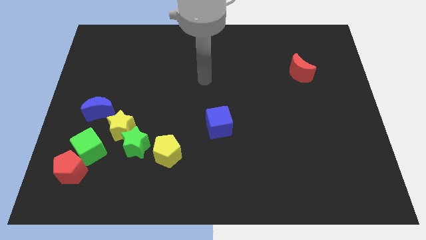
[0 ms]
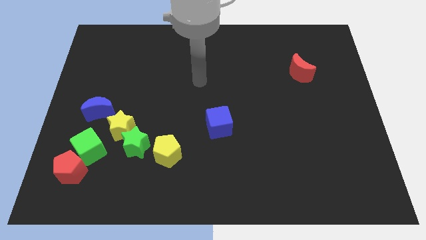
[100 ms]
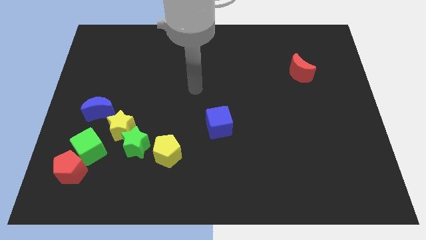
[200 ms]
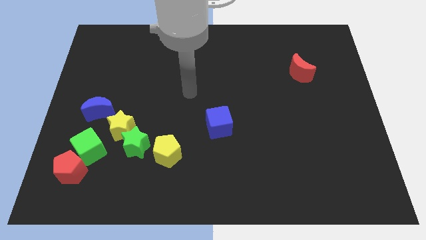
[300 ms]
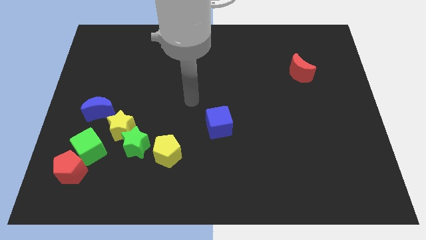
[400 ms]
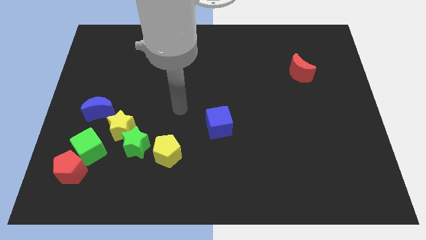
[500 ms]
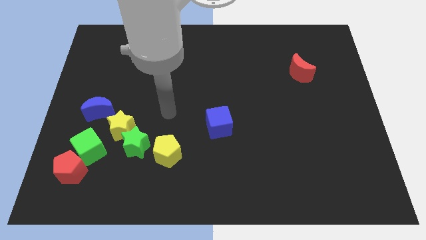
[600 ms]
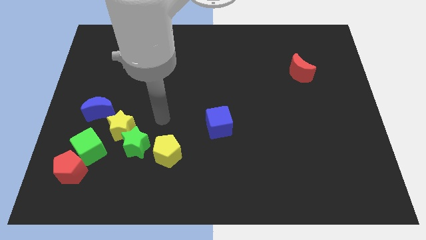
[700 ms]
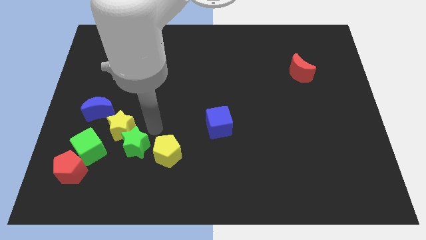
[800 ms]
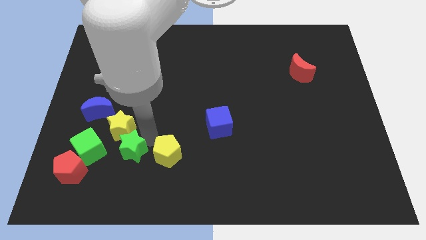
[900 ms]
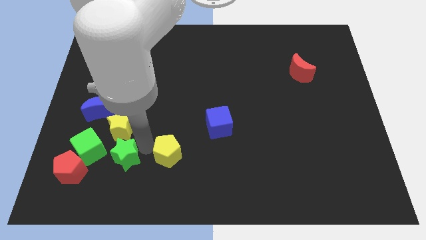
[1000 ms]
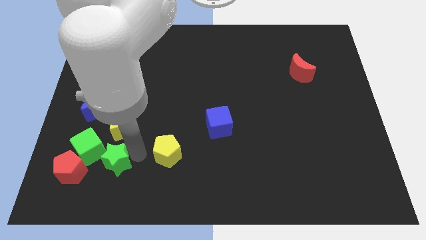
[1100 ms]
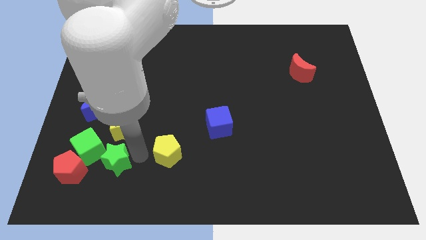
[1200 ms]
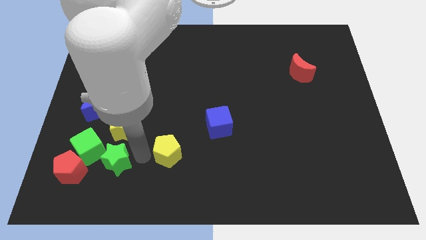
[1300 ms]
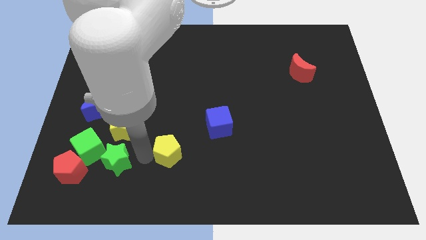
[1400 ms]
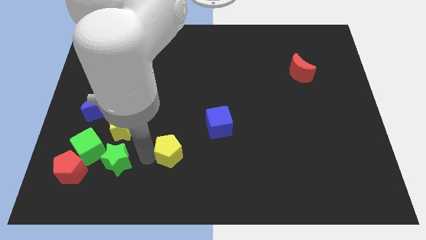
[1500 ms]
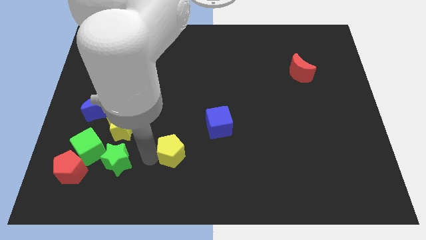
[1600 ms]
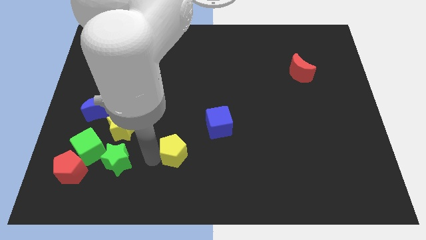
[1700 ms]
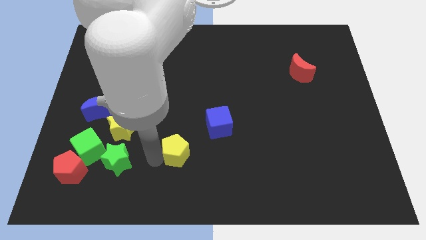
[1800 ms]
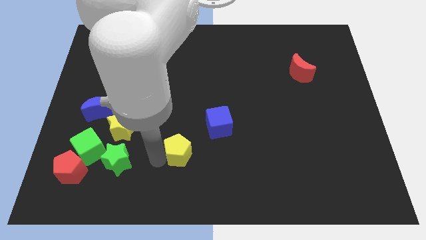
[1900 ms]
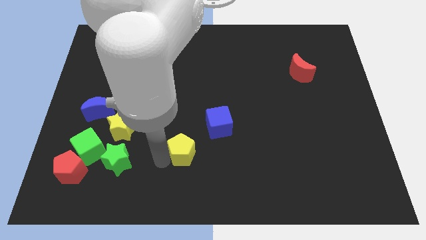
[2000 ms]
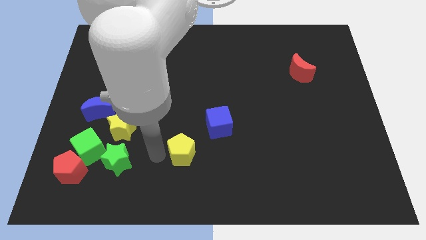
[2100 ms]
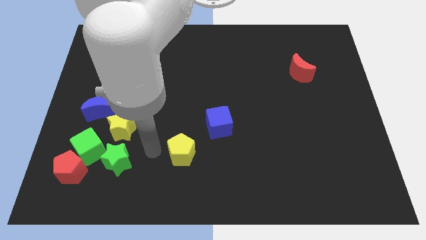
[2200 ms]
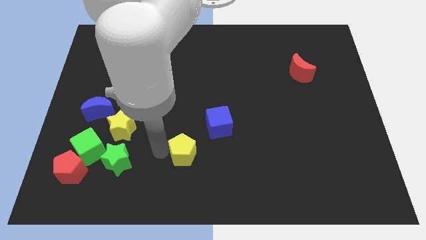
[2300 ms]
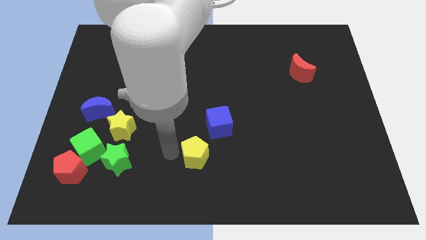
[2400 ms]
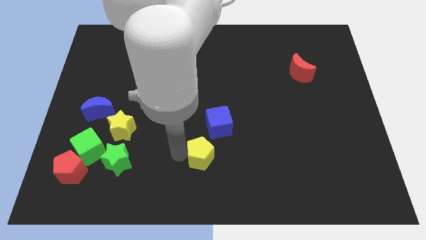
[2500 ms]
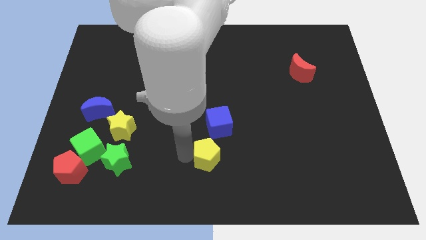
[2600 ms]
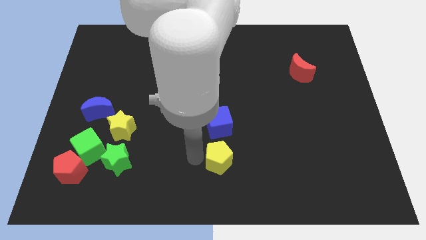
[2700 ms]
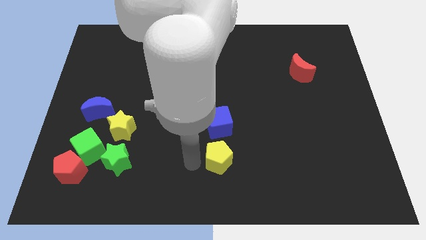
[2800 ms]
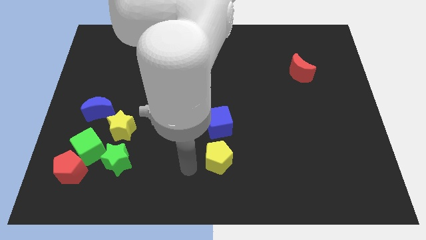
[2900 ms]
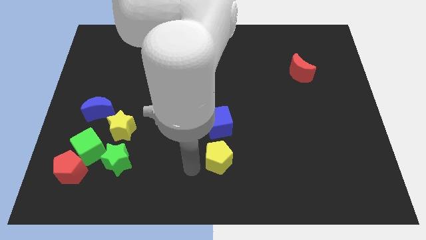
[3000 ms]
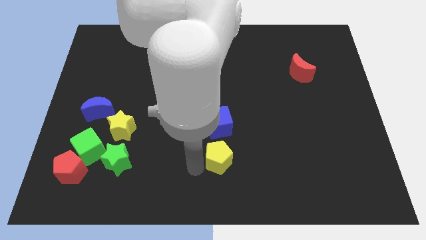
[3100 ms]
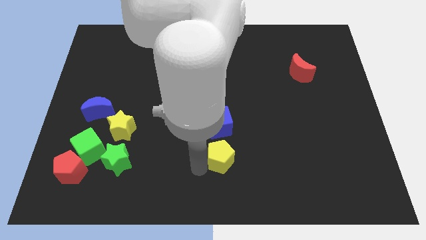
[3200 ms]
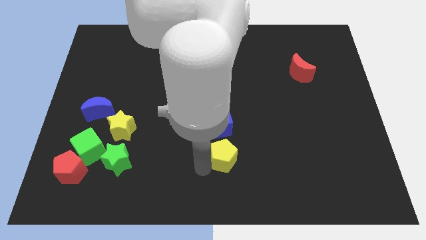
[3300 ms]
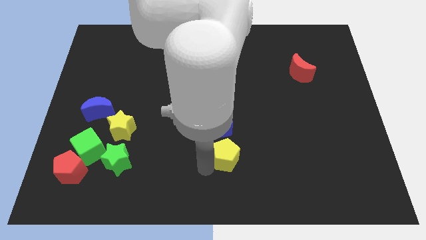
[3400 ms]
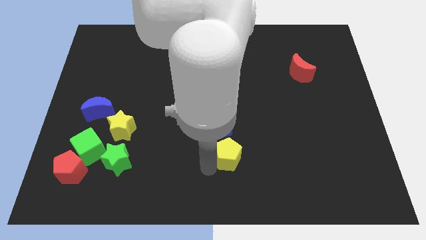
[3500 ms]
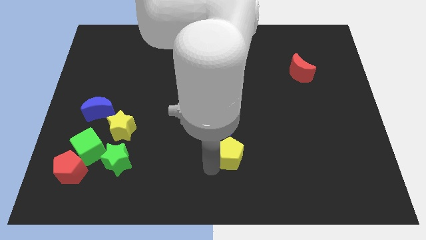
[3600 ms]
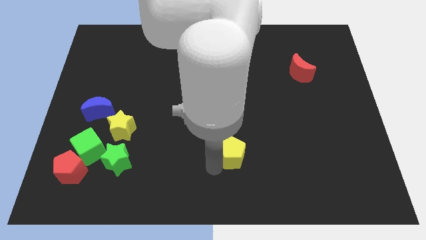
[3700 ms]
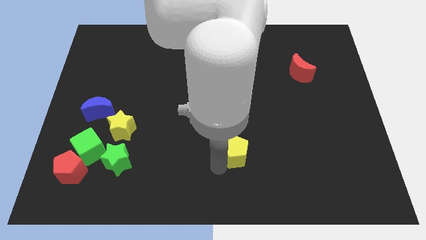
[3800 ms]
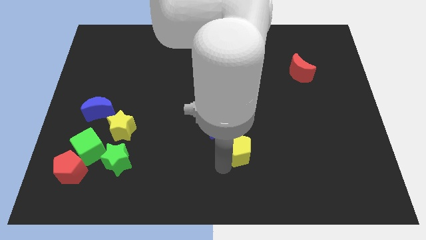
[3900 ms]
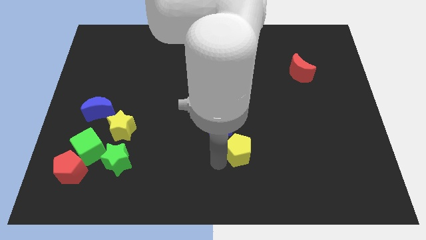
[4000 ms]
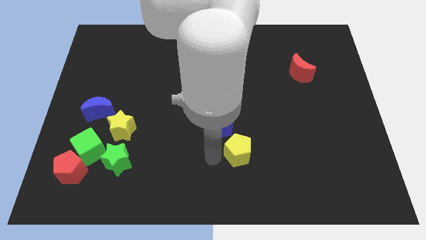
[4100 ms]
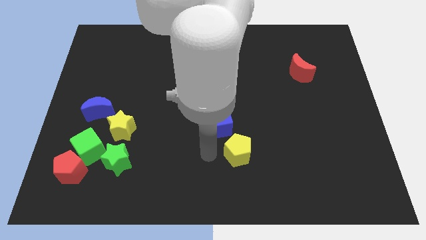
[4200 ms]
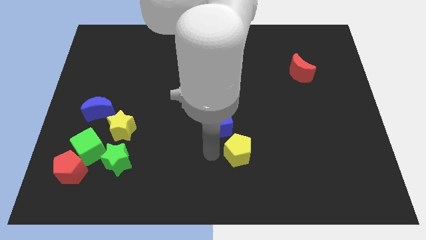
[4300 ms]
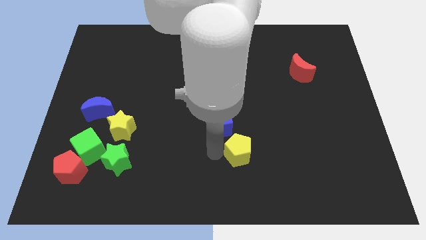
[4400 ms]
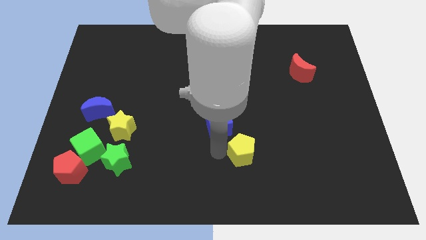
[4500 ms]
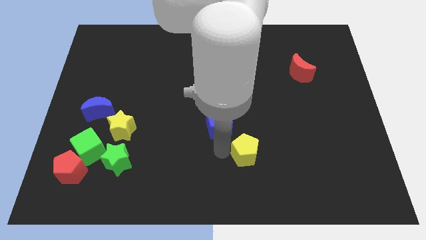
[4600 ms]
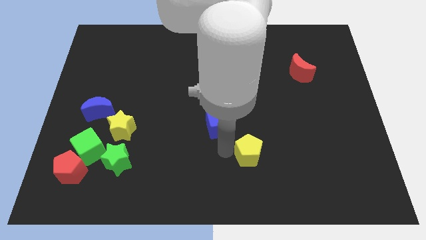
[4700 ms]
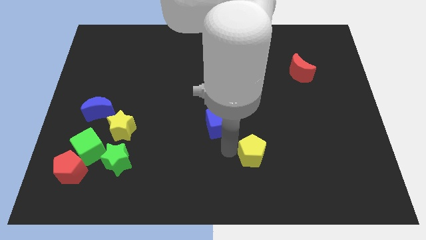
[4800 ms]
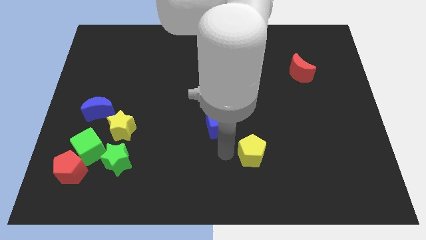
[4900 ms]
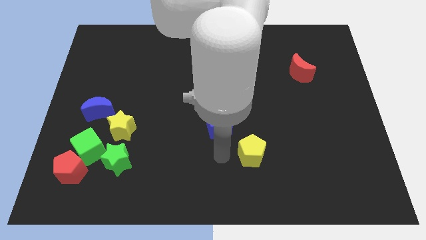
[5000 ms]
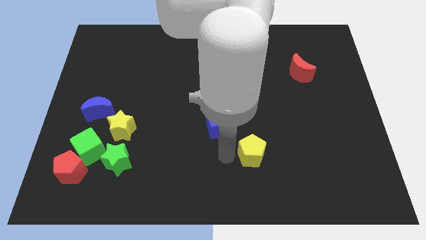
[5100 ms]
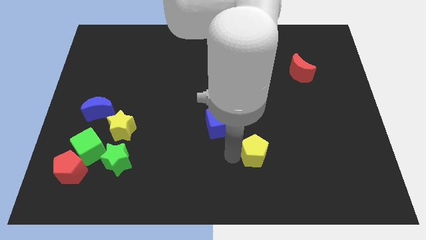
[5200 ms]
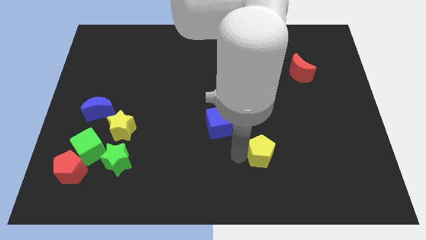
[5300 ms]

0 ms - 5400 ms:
move the yellow pentagon to the right

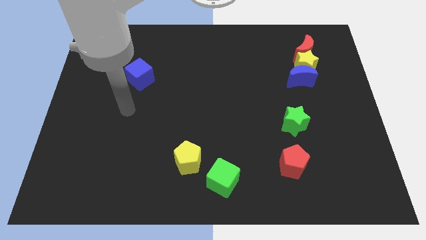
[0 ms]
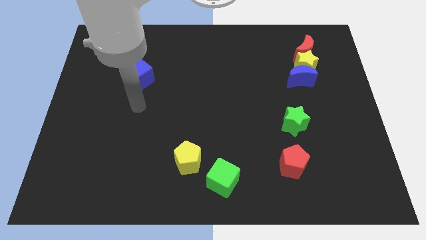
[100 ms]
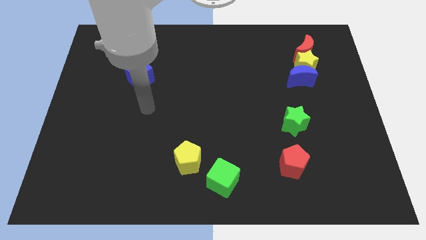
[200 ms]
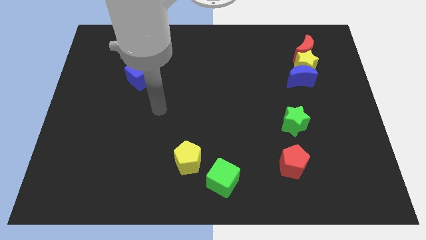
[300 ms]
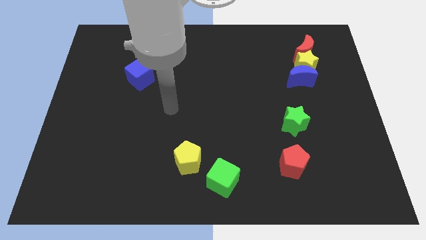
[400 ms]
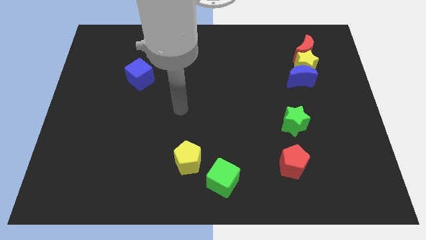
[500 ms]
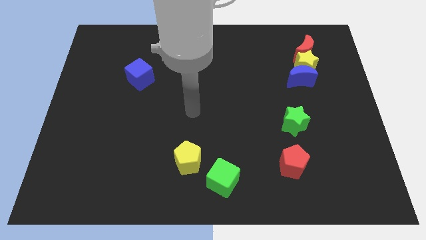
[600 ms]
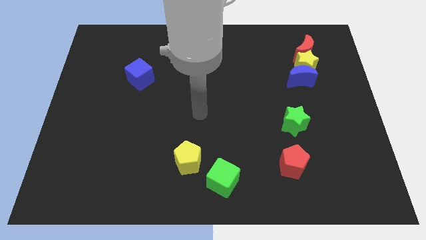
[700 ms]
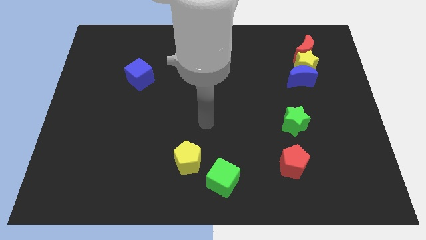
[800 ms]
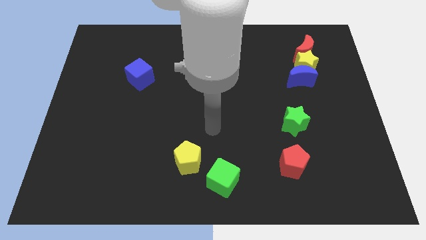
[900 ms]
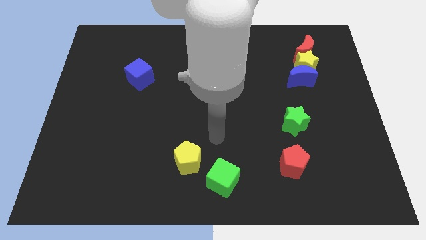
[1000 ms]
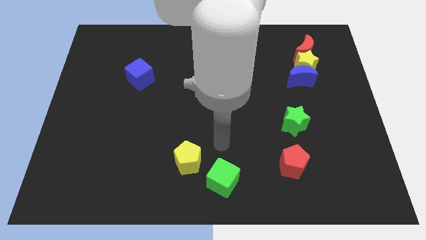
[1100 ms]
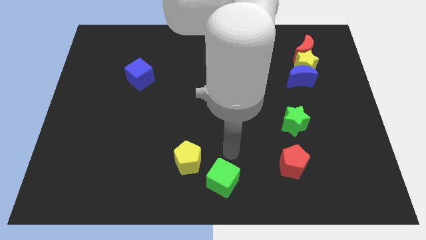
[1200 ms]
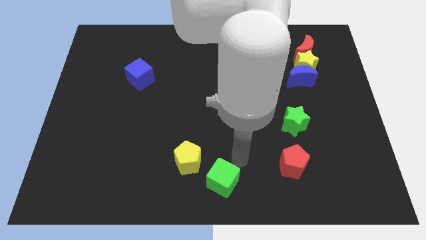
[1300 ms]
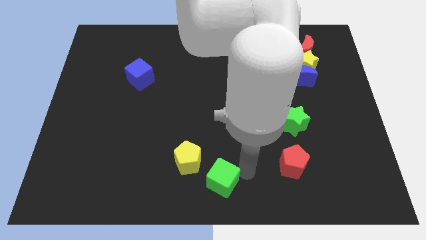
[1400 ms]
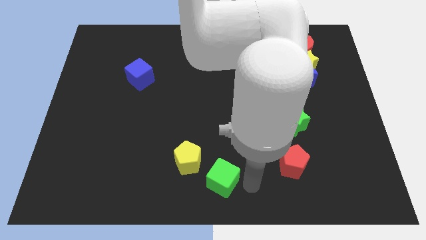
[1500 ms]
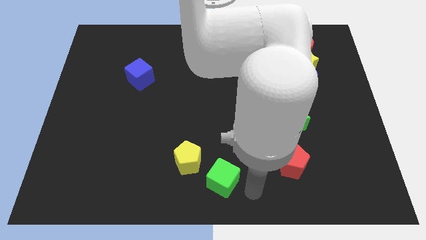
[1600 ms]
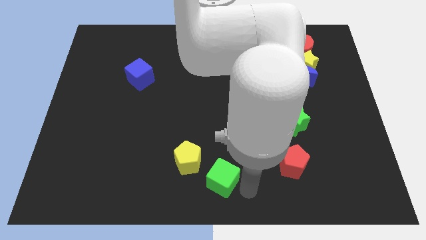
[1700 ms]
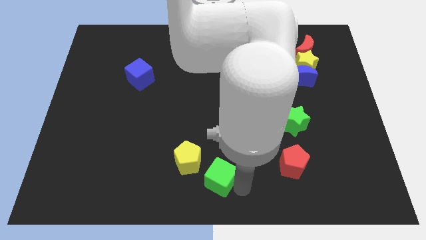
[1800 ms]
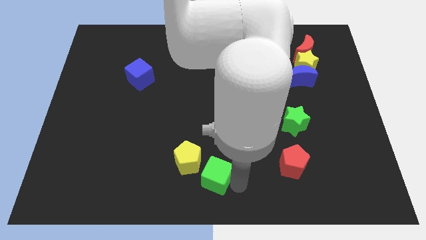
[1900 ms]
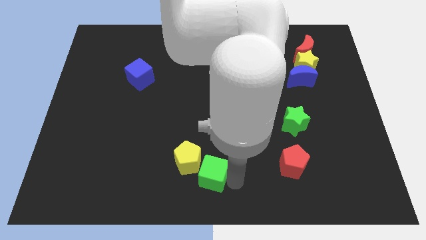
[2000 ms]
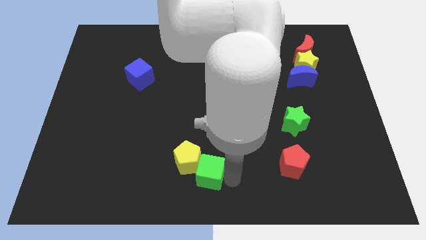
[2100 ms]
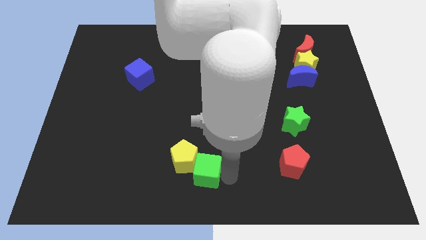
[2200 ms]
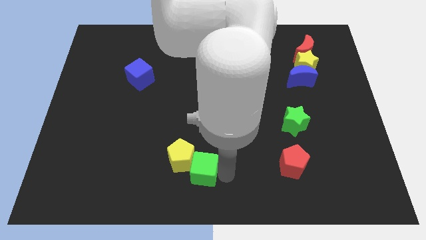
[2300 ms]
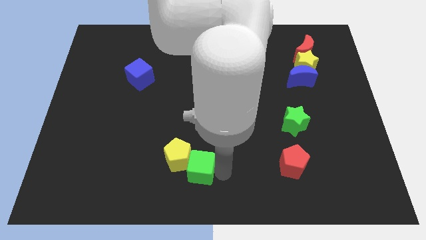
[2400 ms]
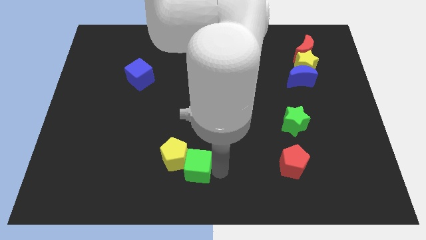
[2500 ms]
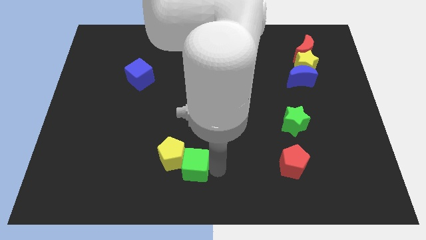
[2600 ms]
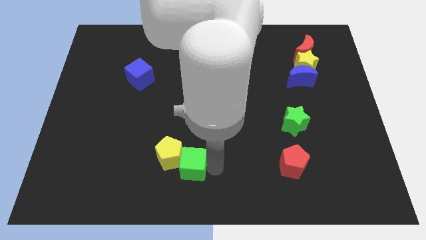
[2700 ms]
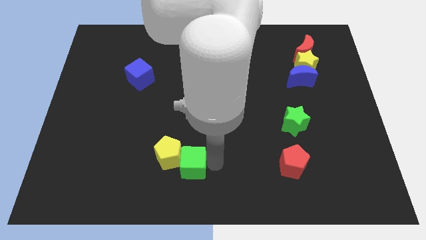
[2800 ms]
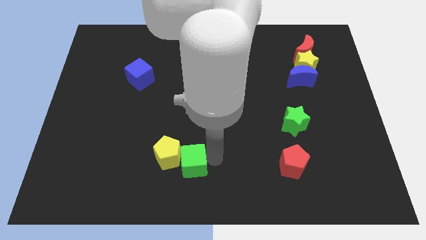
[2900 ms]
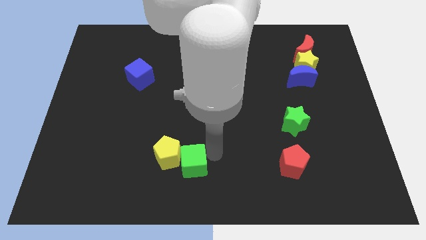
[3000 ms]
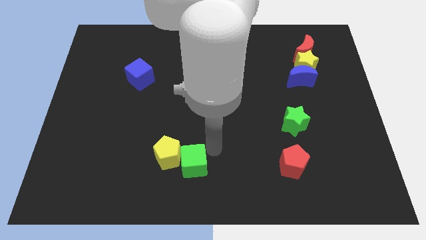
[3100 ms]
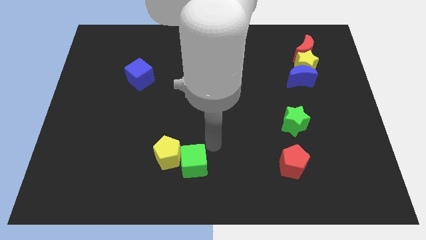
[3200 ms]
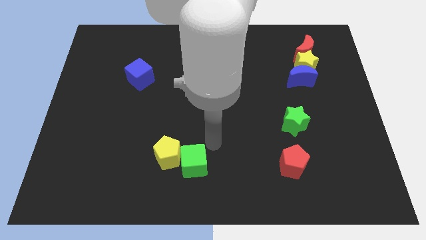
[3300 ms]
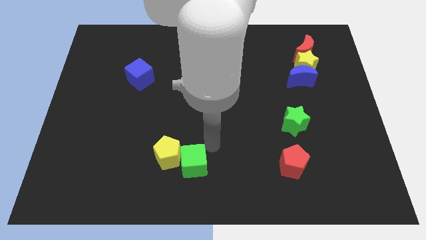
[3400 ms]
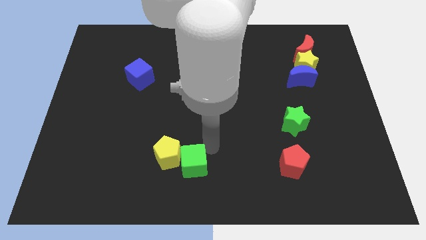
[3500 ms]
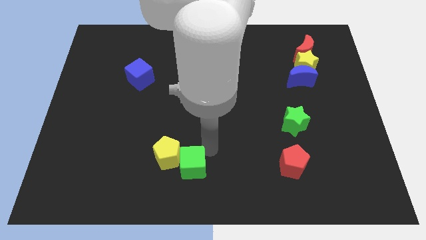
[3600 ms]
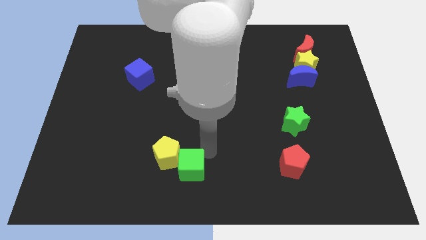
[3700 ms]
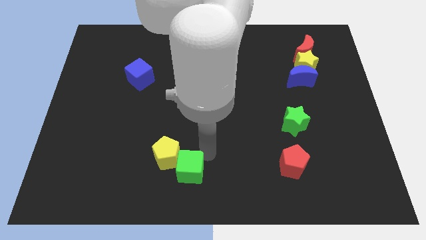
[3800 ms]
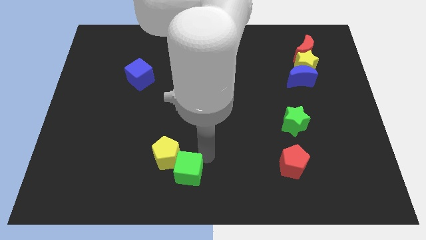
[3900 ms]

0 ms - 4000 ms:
push the green cube to the left a bit
